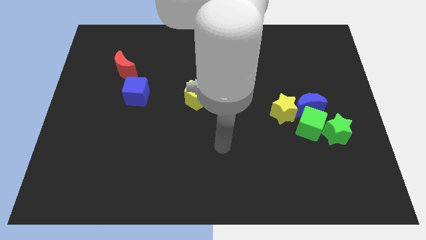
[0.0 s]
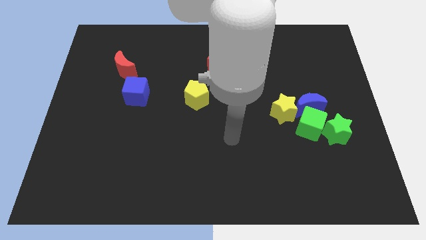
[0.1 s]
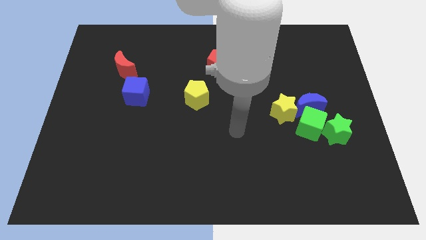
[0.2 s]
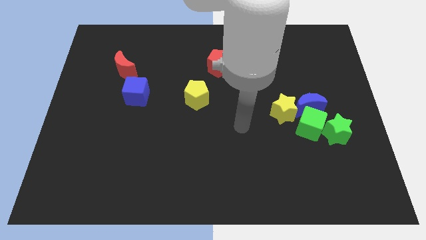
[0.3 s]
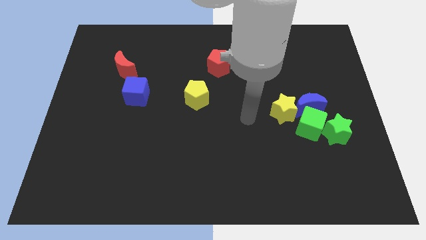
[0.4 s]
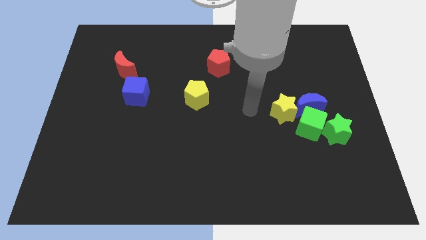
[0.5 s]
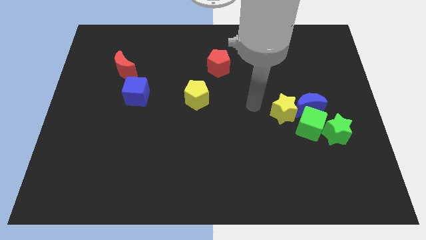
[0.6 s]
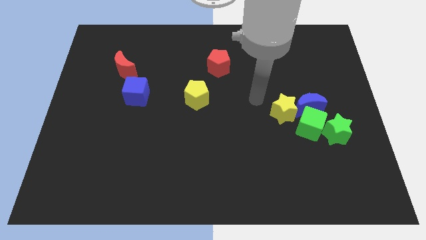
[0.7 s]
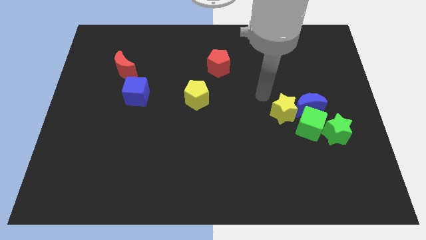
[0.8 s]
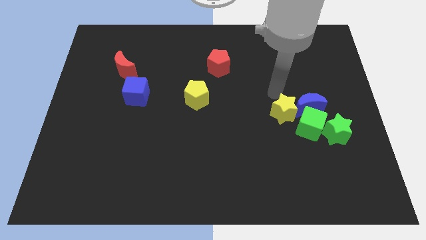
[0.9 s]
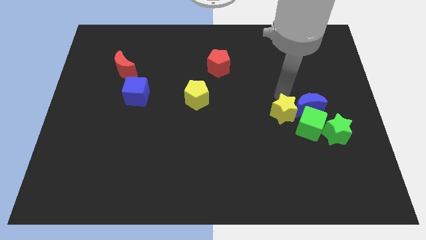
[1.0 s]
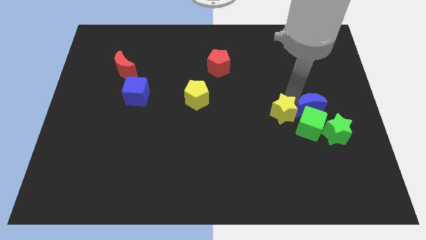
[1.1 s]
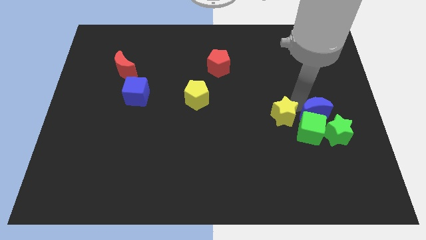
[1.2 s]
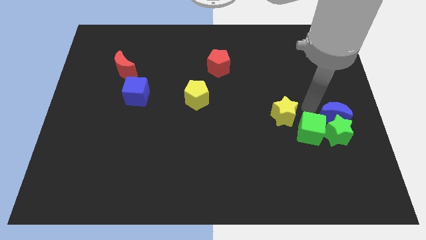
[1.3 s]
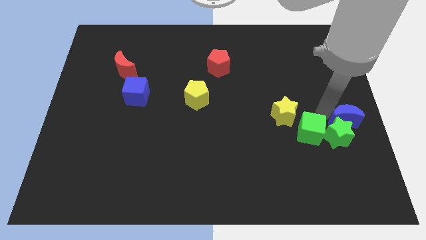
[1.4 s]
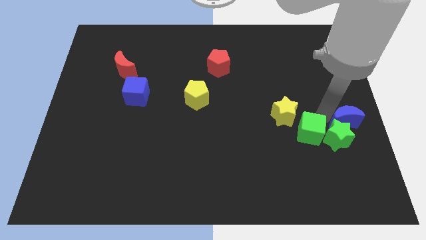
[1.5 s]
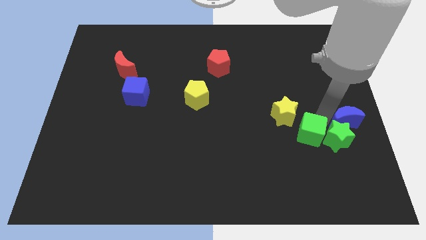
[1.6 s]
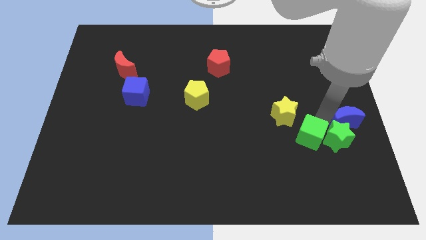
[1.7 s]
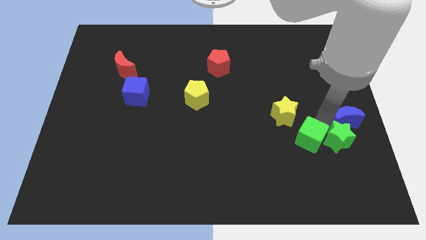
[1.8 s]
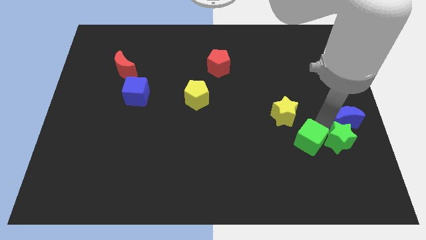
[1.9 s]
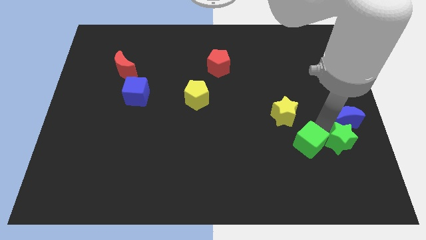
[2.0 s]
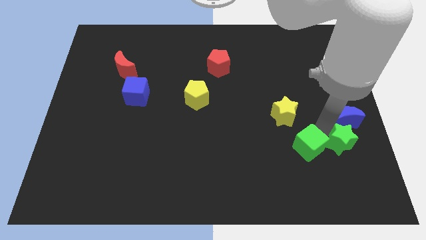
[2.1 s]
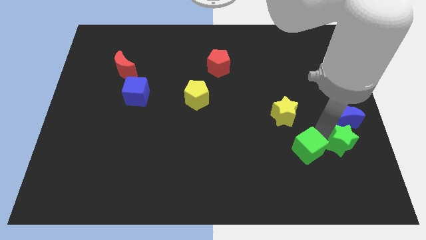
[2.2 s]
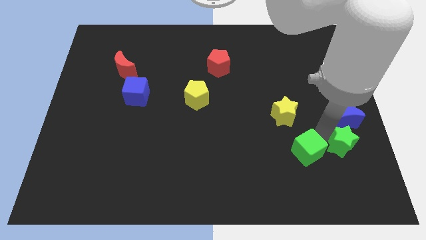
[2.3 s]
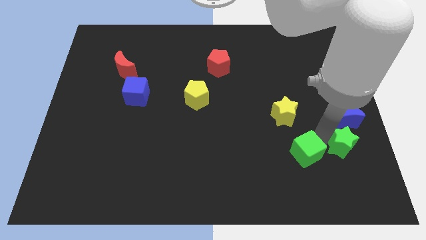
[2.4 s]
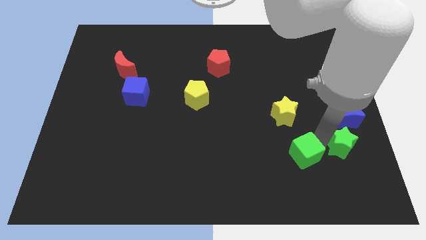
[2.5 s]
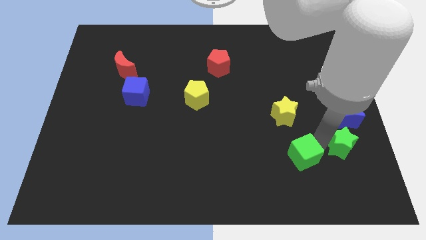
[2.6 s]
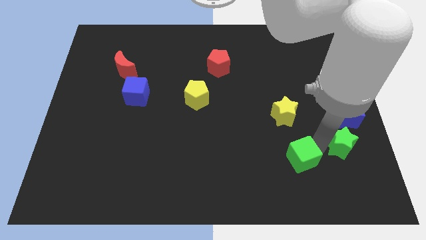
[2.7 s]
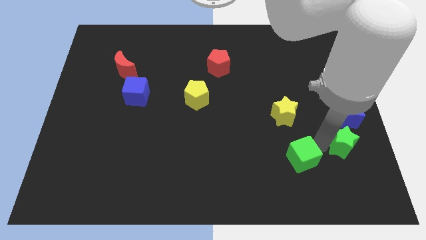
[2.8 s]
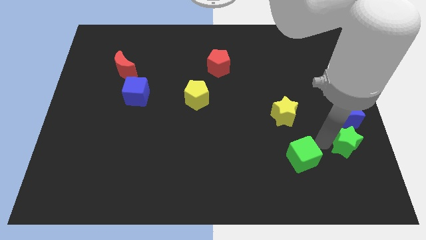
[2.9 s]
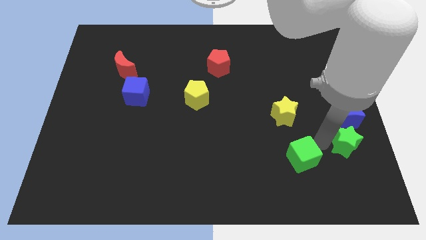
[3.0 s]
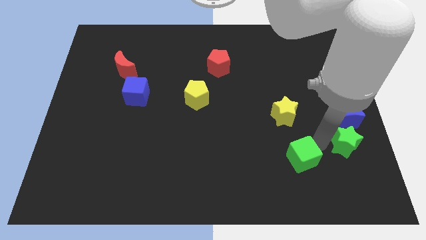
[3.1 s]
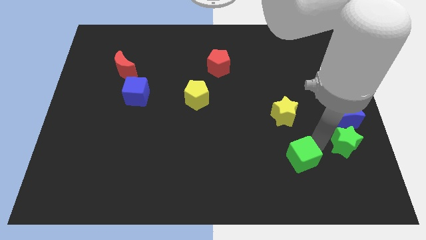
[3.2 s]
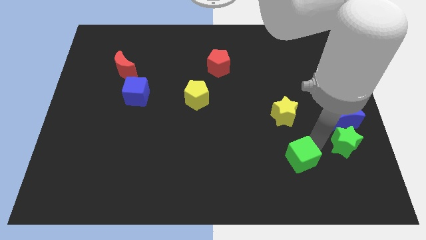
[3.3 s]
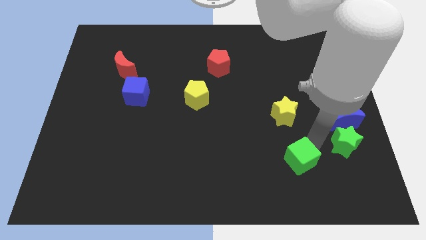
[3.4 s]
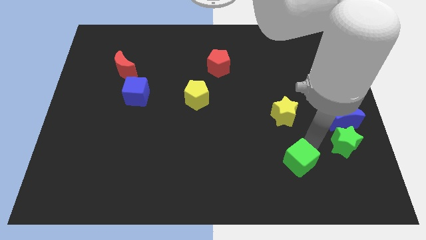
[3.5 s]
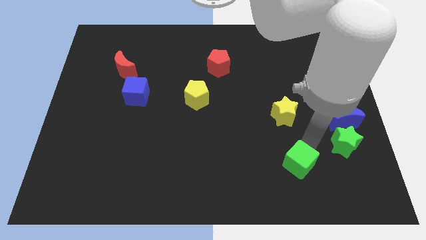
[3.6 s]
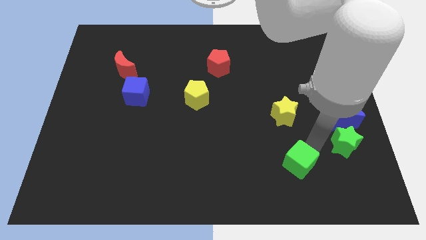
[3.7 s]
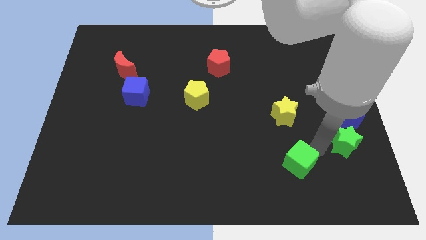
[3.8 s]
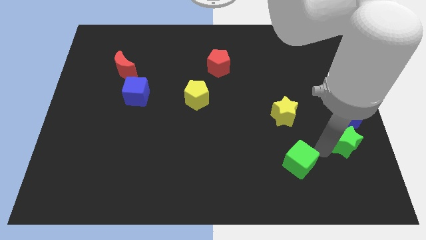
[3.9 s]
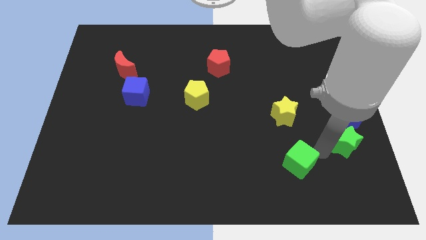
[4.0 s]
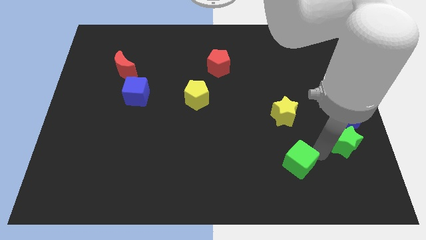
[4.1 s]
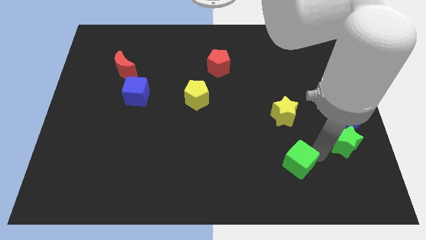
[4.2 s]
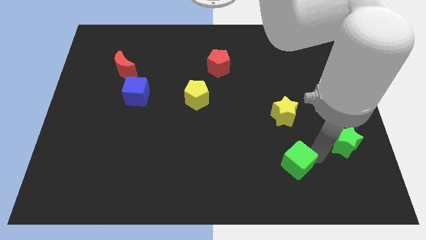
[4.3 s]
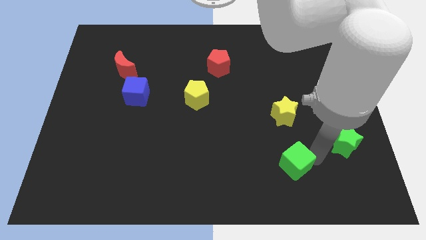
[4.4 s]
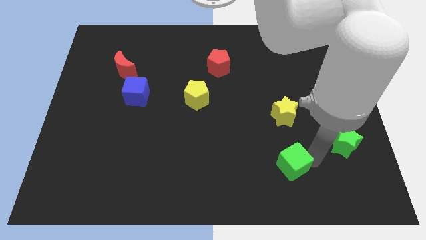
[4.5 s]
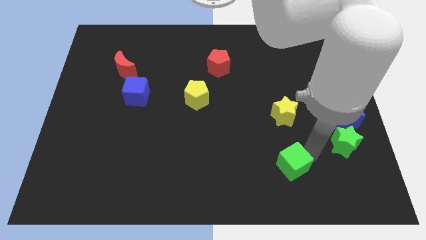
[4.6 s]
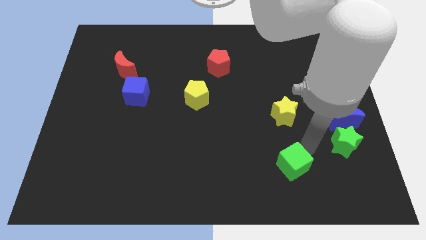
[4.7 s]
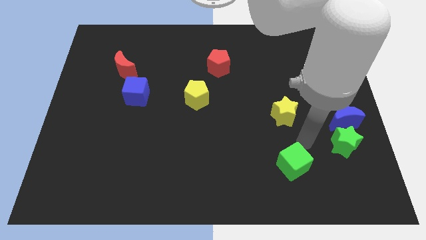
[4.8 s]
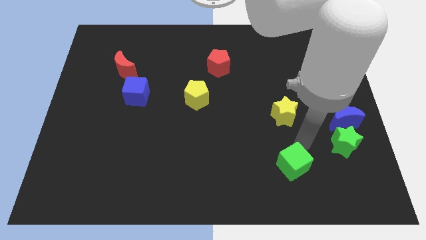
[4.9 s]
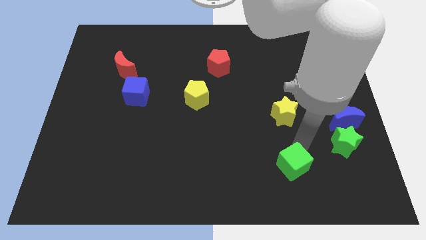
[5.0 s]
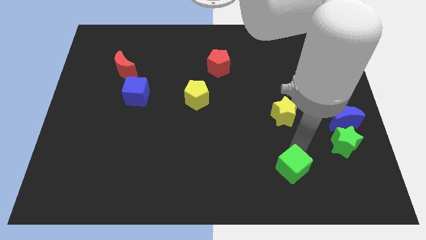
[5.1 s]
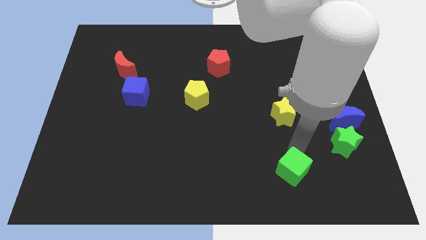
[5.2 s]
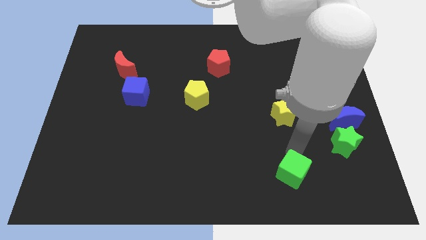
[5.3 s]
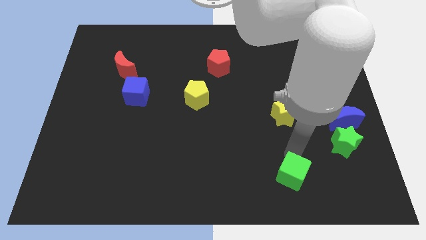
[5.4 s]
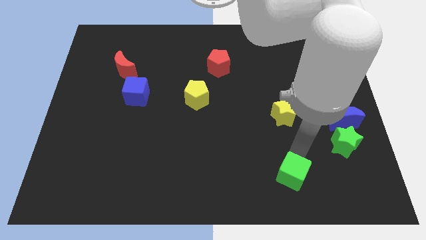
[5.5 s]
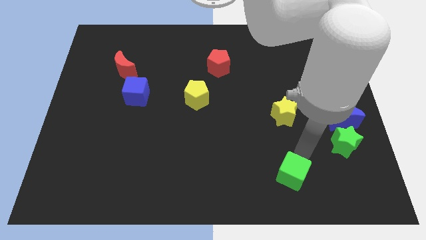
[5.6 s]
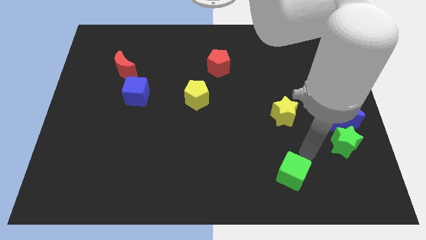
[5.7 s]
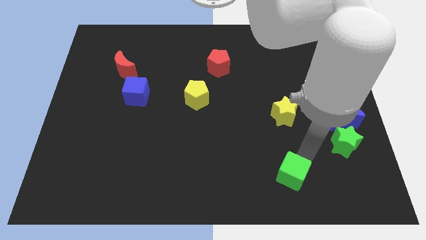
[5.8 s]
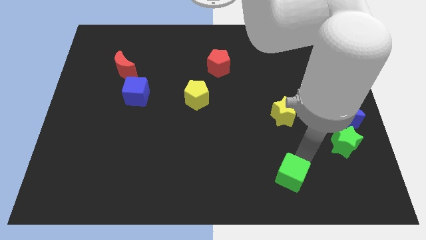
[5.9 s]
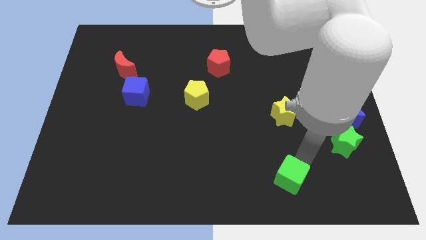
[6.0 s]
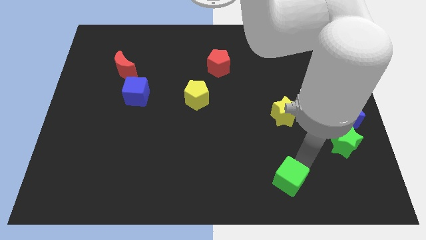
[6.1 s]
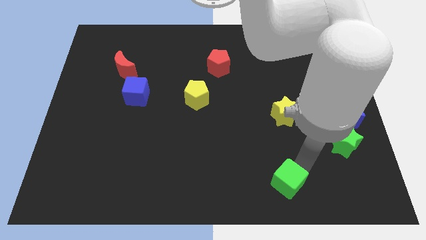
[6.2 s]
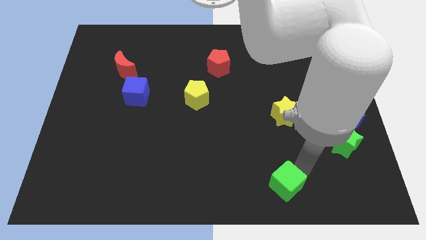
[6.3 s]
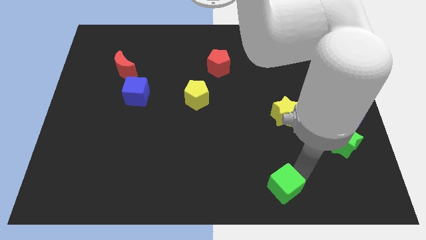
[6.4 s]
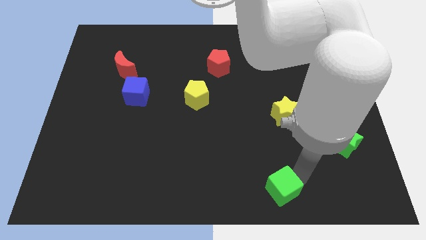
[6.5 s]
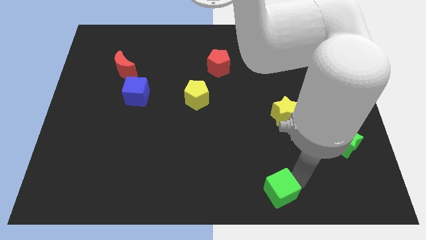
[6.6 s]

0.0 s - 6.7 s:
put the green cube to the bottom

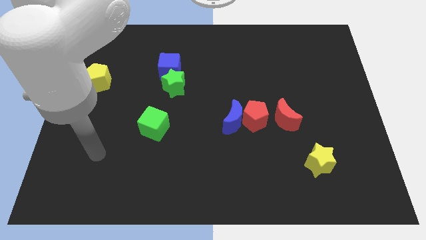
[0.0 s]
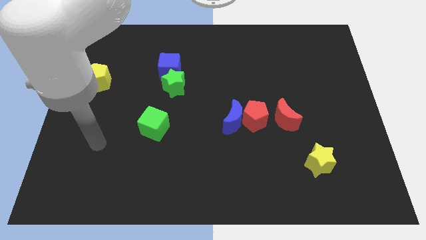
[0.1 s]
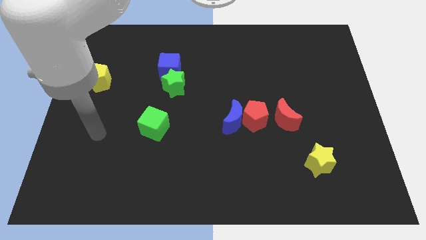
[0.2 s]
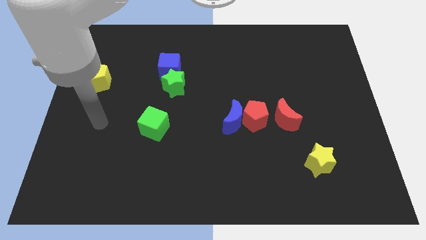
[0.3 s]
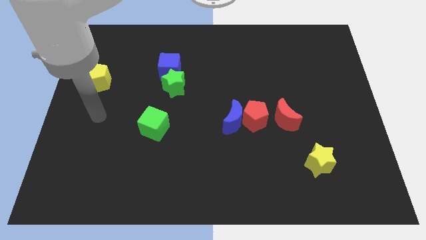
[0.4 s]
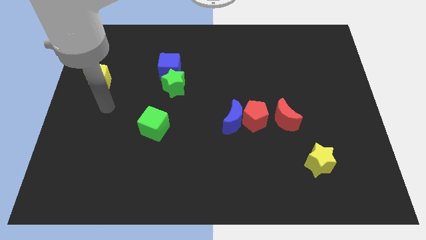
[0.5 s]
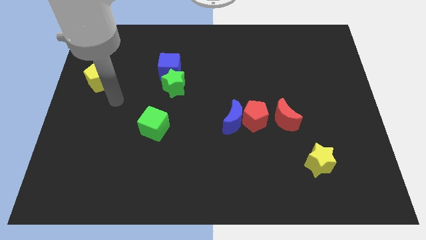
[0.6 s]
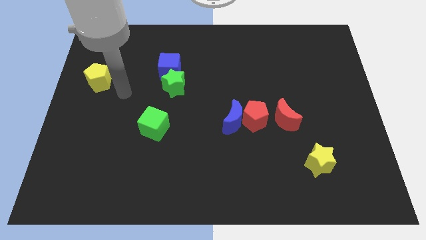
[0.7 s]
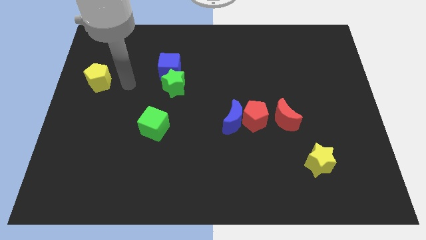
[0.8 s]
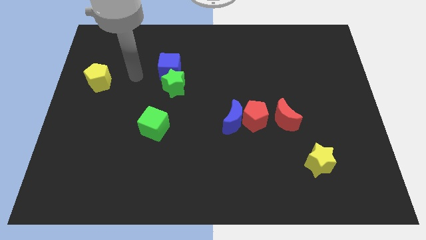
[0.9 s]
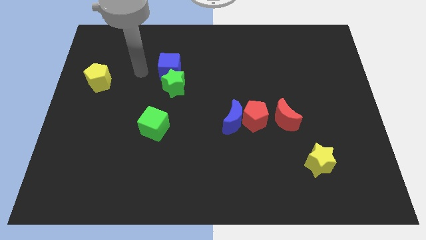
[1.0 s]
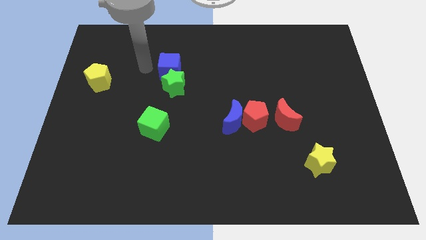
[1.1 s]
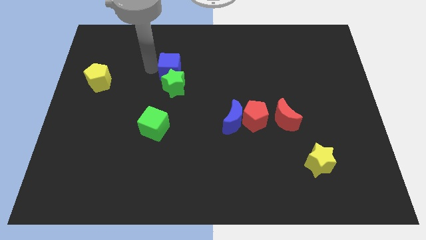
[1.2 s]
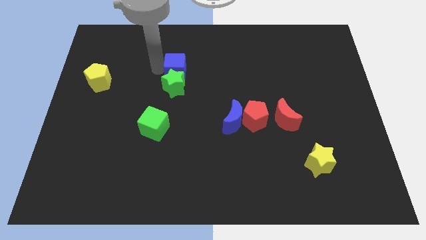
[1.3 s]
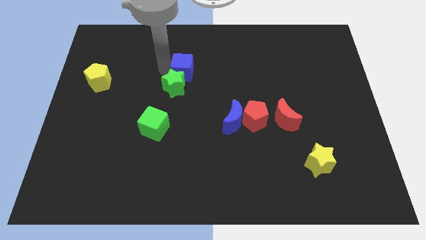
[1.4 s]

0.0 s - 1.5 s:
move the blue cube to the center of the board
